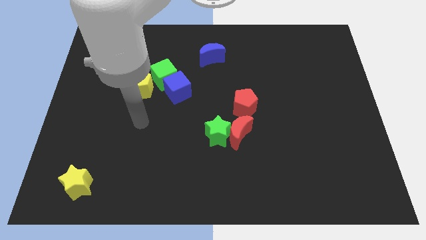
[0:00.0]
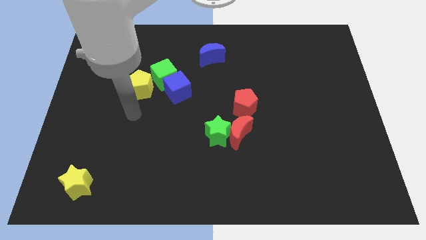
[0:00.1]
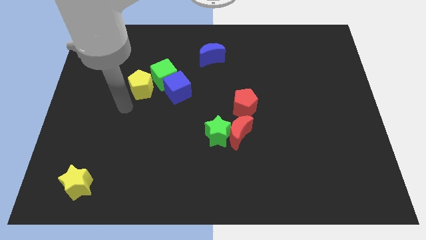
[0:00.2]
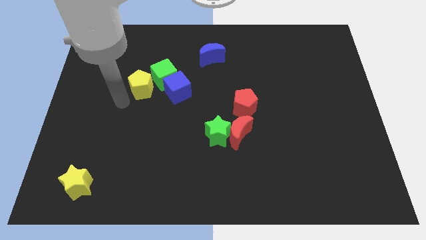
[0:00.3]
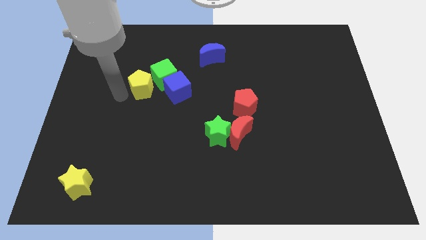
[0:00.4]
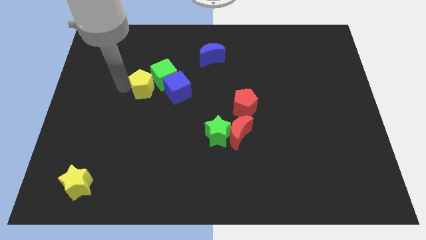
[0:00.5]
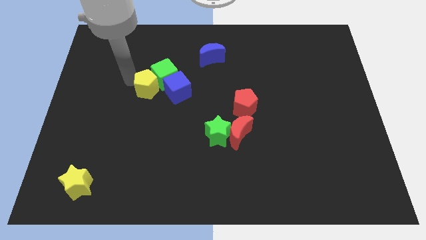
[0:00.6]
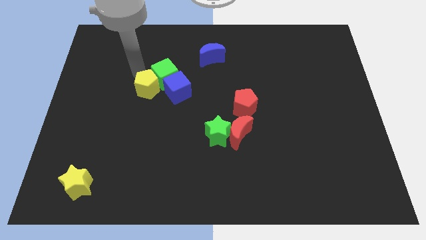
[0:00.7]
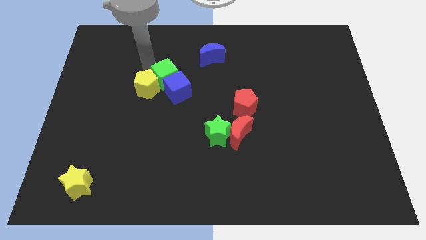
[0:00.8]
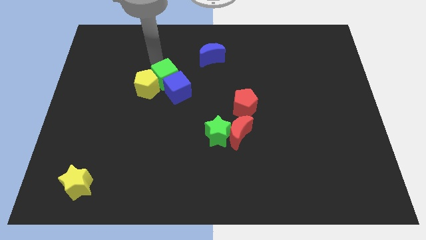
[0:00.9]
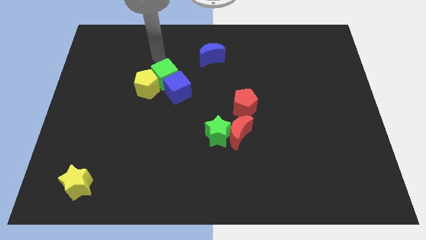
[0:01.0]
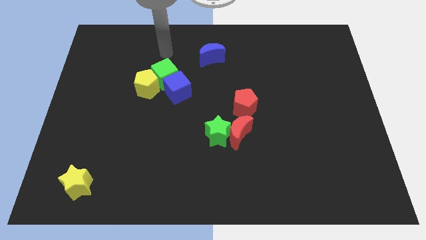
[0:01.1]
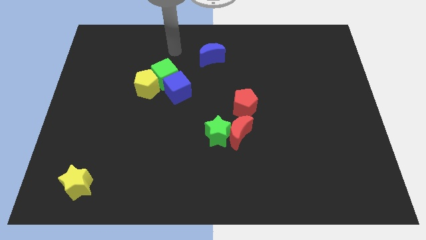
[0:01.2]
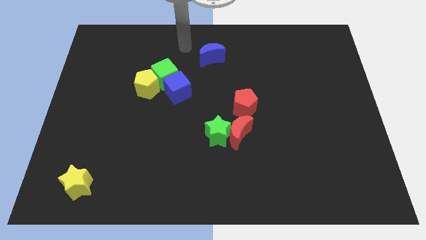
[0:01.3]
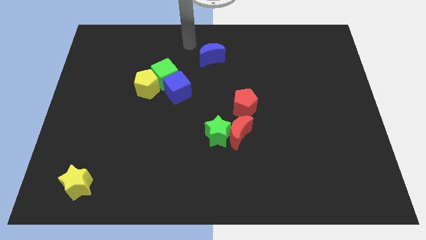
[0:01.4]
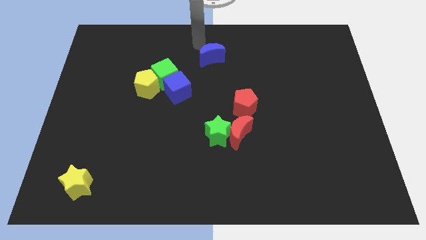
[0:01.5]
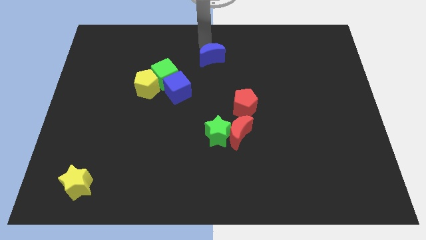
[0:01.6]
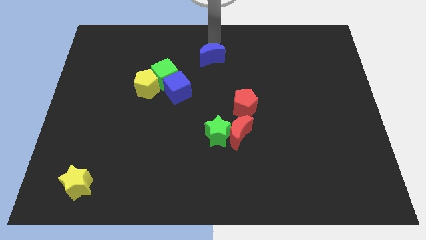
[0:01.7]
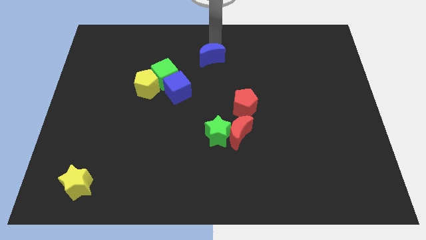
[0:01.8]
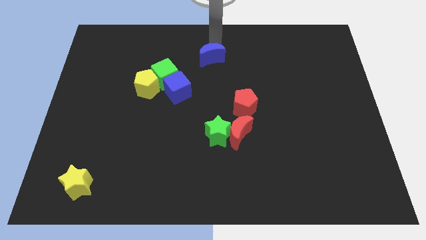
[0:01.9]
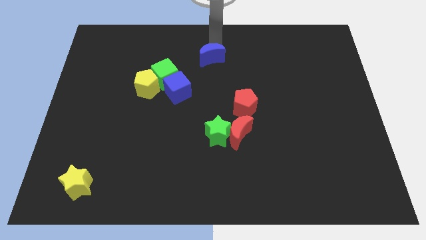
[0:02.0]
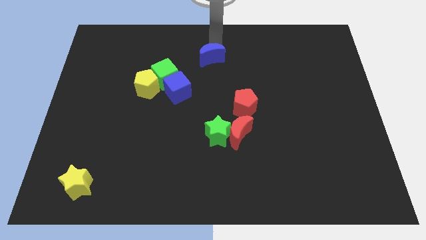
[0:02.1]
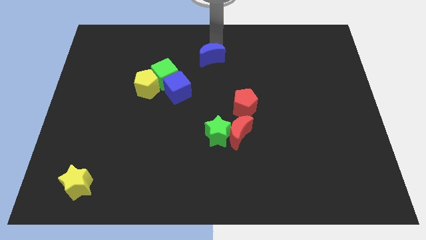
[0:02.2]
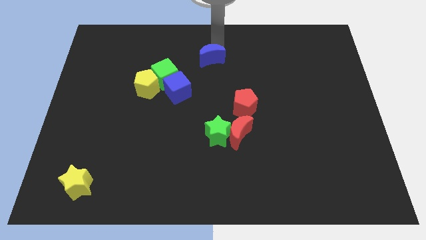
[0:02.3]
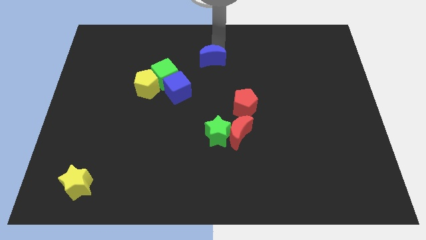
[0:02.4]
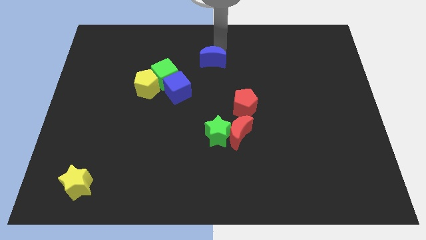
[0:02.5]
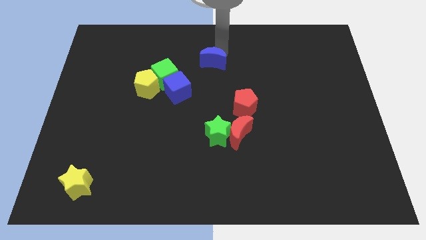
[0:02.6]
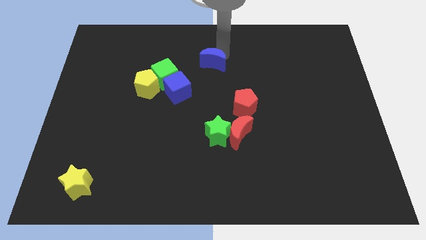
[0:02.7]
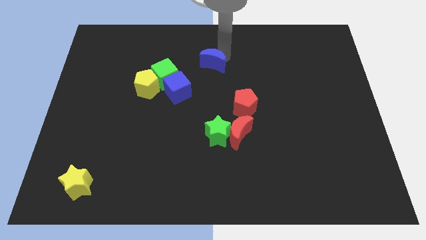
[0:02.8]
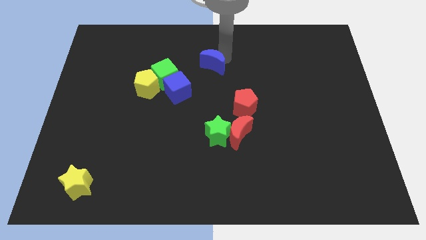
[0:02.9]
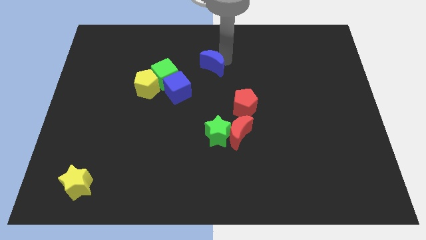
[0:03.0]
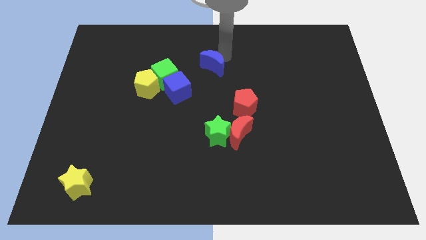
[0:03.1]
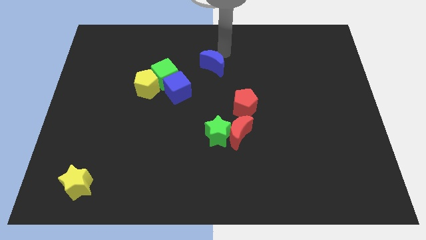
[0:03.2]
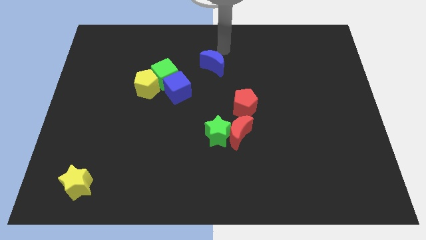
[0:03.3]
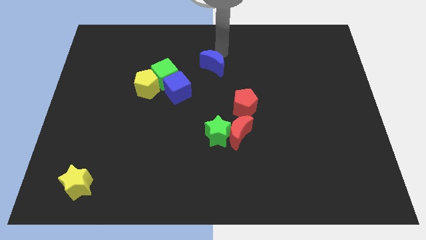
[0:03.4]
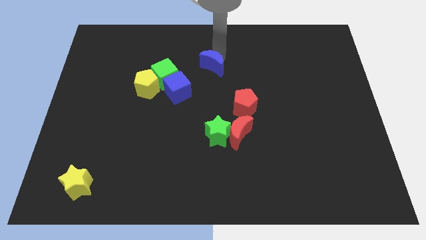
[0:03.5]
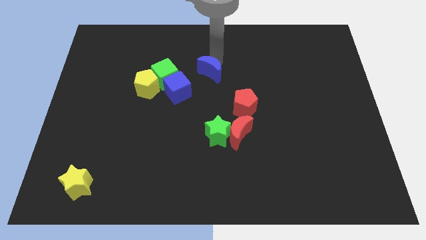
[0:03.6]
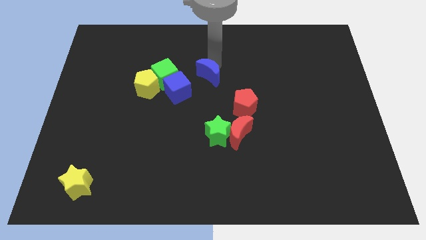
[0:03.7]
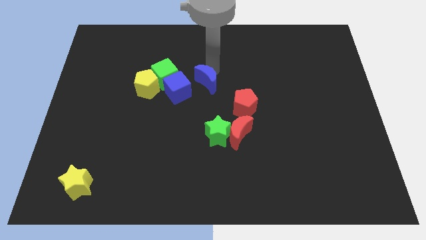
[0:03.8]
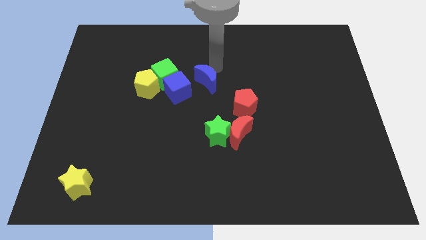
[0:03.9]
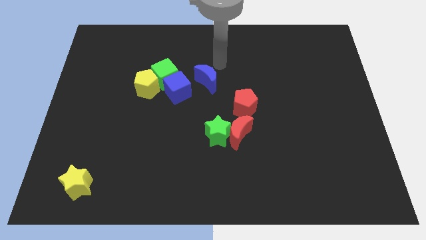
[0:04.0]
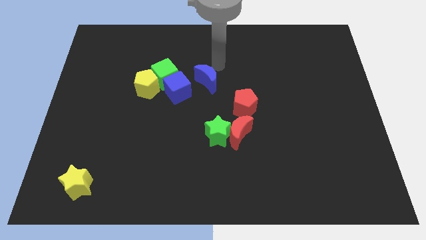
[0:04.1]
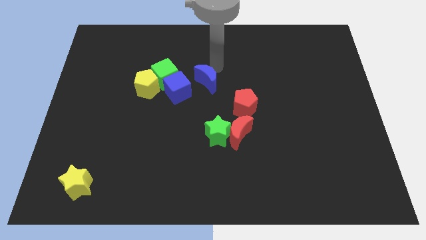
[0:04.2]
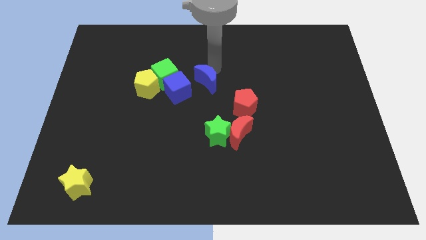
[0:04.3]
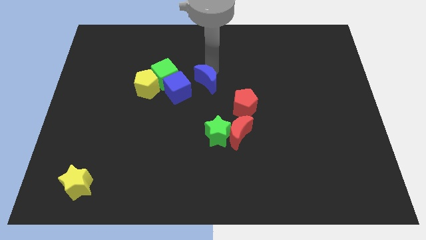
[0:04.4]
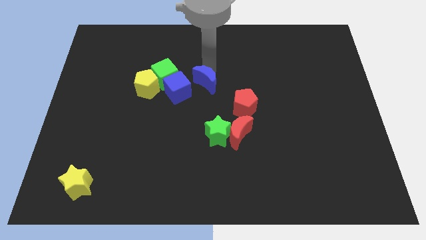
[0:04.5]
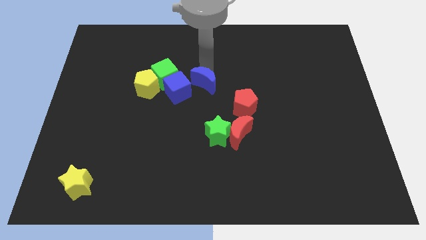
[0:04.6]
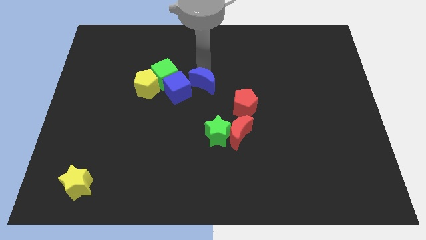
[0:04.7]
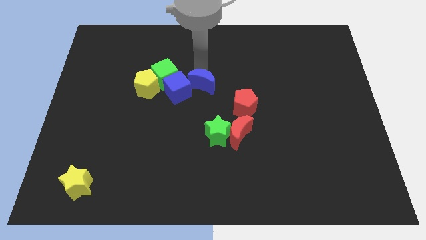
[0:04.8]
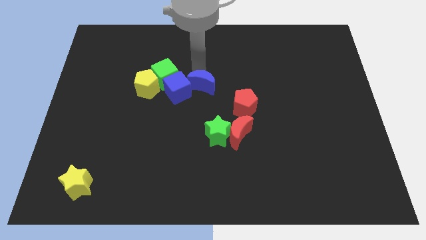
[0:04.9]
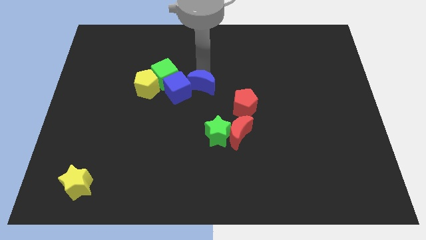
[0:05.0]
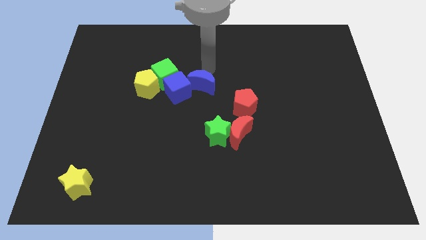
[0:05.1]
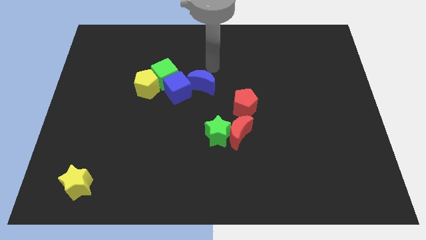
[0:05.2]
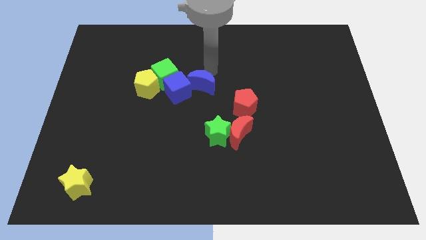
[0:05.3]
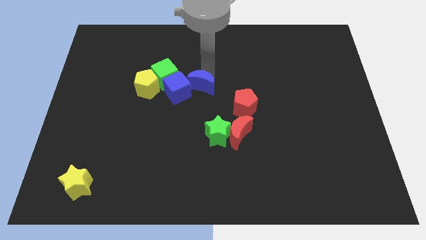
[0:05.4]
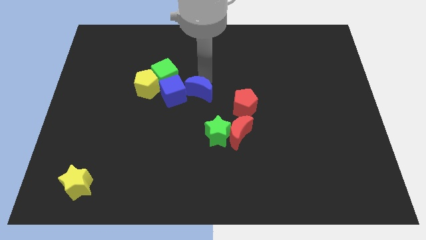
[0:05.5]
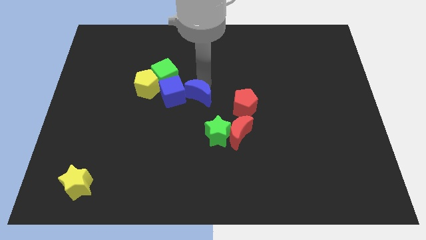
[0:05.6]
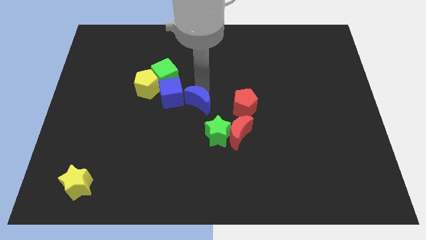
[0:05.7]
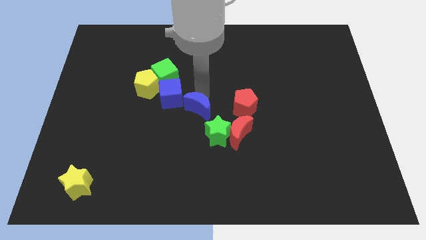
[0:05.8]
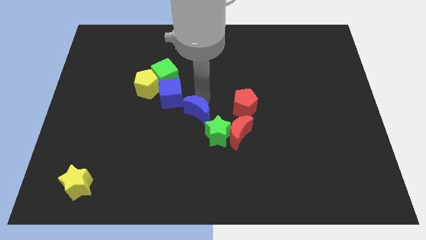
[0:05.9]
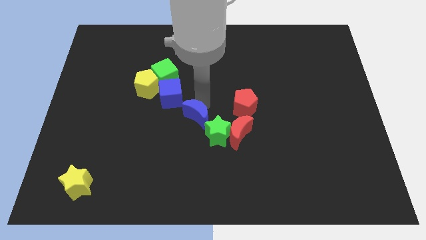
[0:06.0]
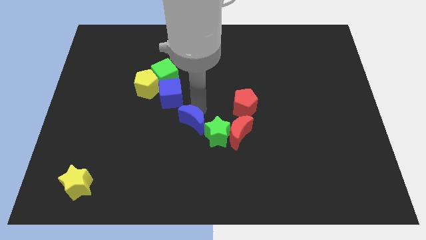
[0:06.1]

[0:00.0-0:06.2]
slide the blue moon down

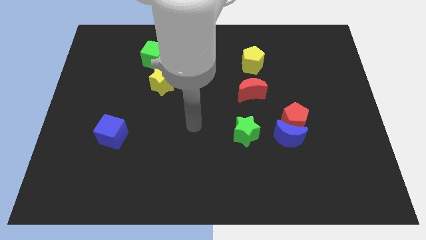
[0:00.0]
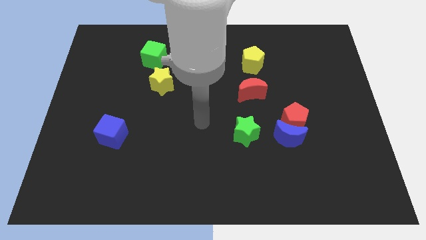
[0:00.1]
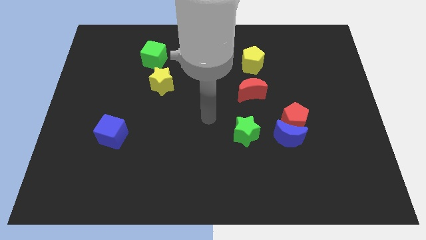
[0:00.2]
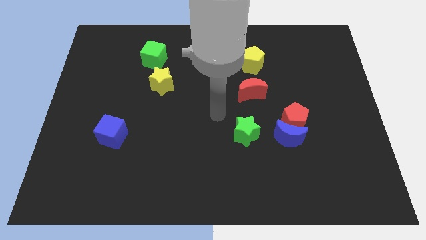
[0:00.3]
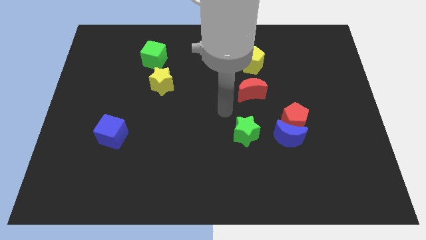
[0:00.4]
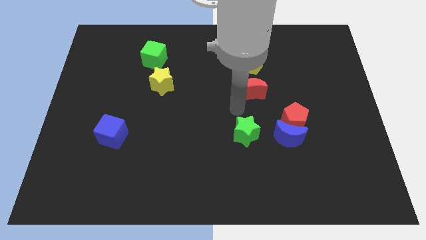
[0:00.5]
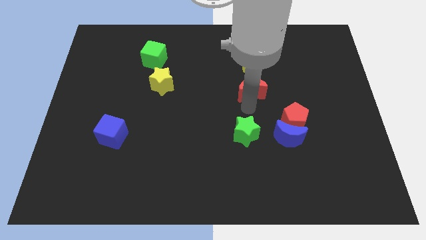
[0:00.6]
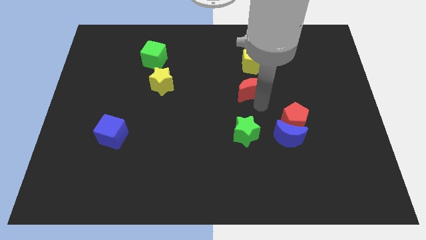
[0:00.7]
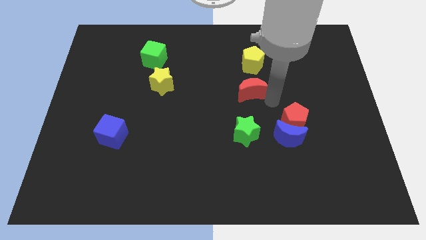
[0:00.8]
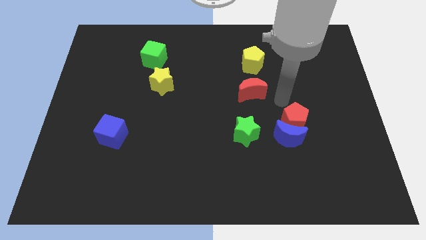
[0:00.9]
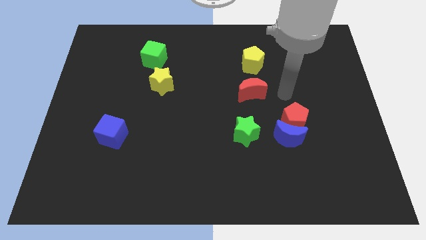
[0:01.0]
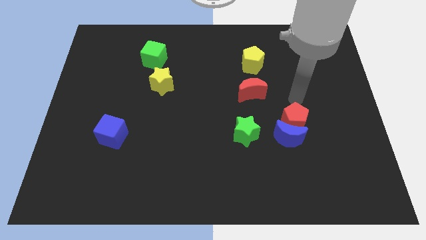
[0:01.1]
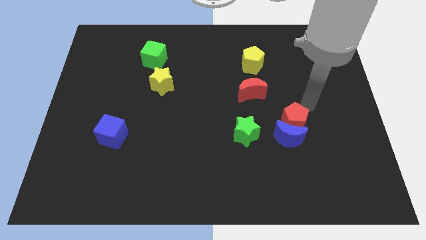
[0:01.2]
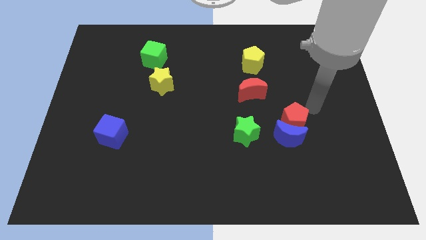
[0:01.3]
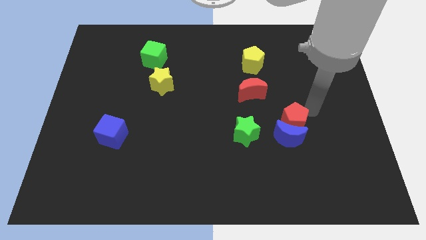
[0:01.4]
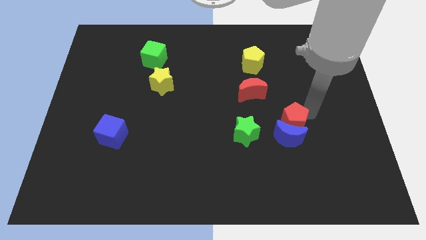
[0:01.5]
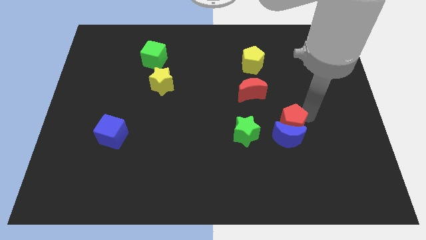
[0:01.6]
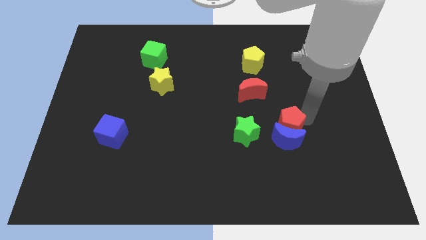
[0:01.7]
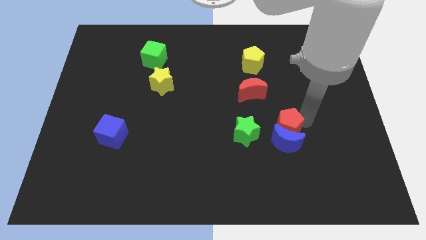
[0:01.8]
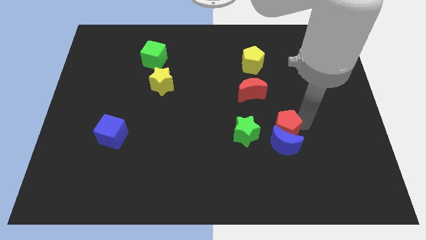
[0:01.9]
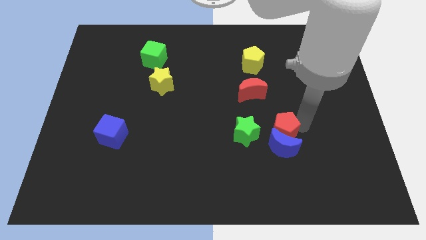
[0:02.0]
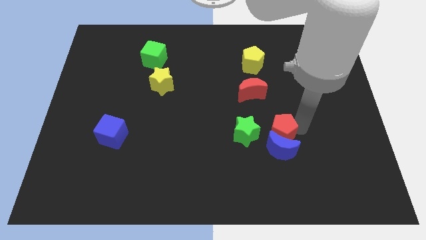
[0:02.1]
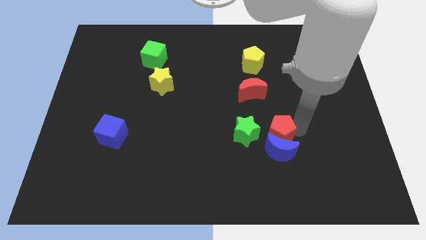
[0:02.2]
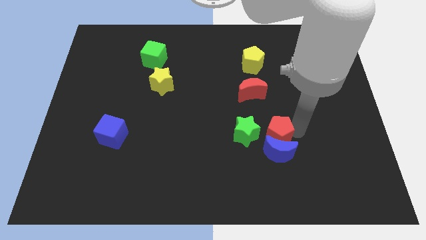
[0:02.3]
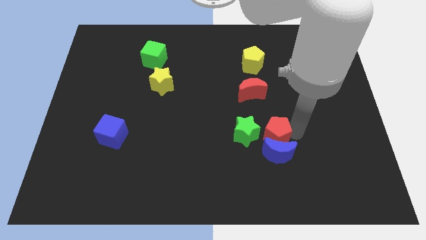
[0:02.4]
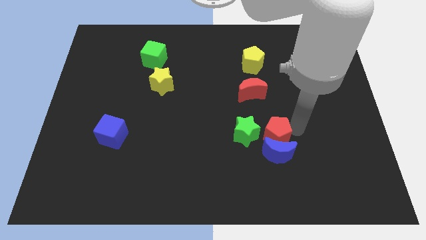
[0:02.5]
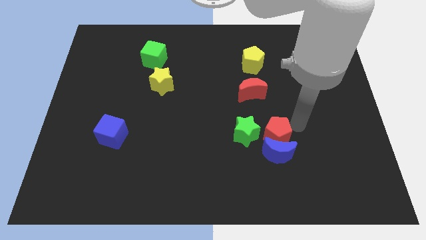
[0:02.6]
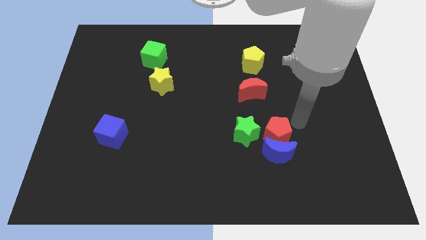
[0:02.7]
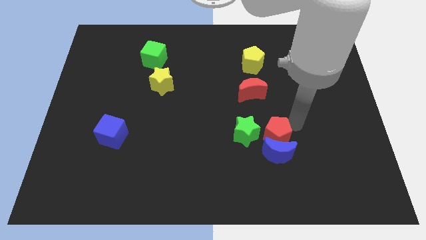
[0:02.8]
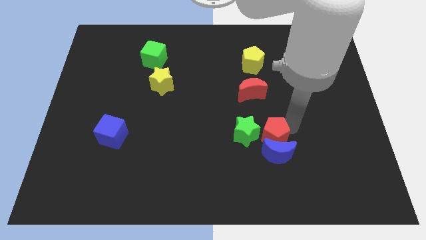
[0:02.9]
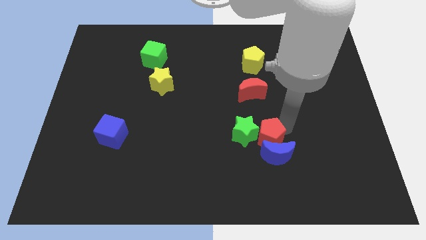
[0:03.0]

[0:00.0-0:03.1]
slightly slide the red pentagon downwards and left diagonally
